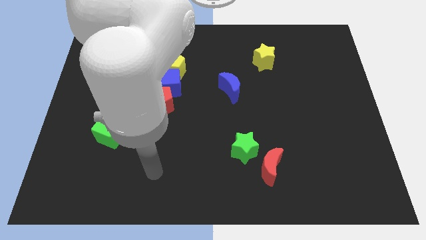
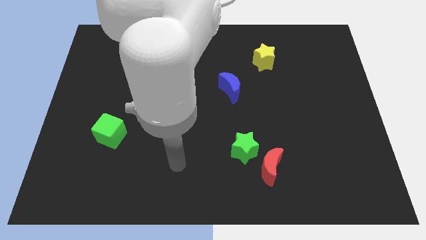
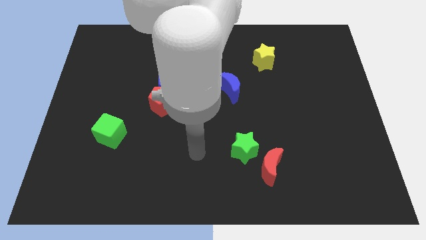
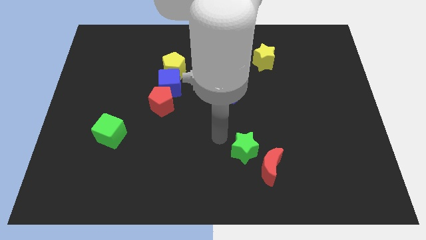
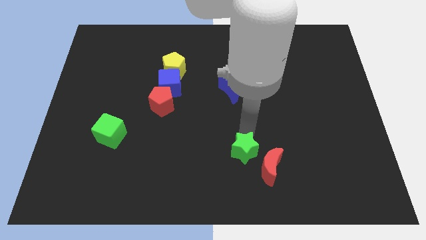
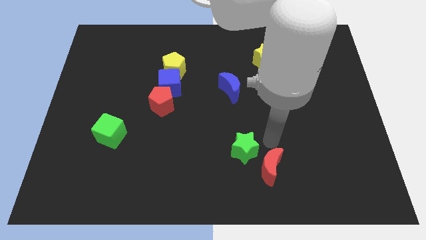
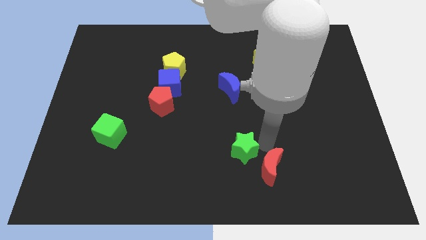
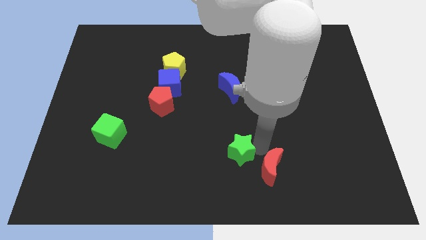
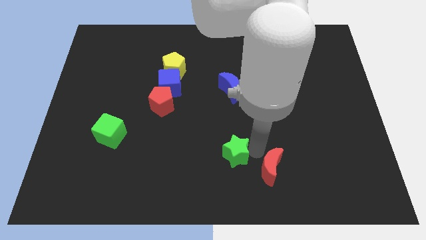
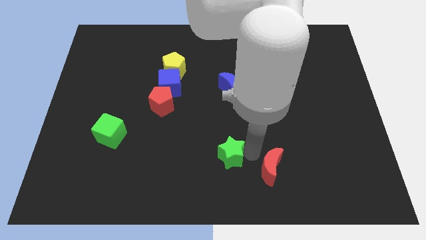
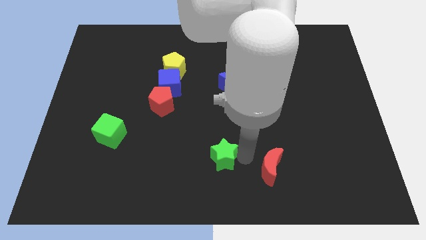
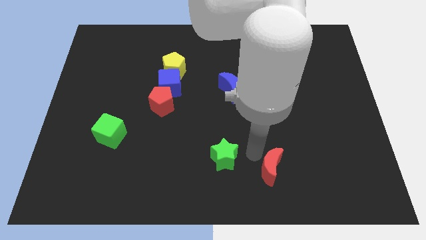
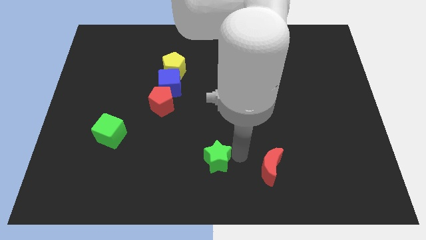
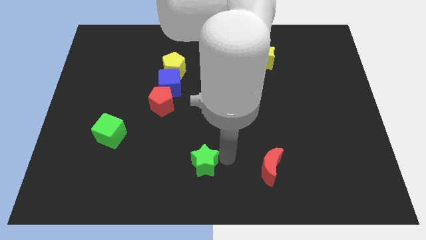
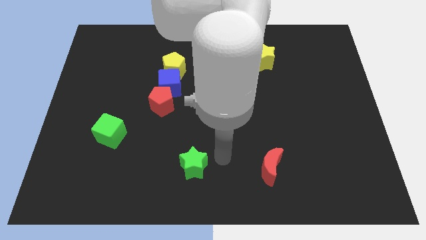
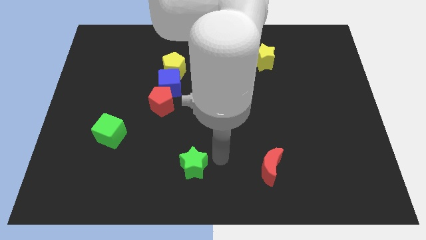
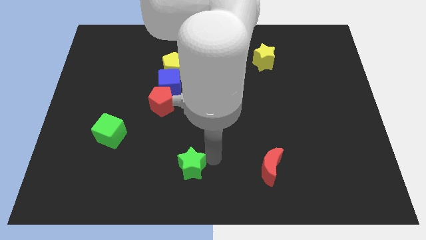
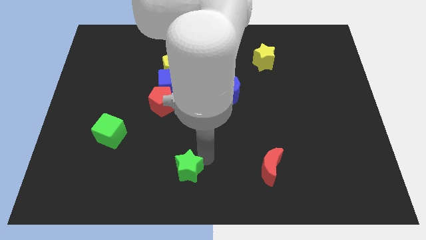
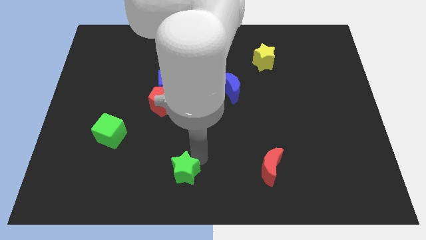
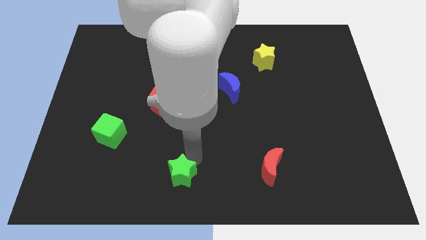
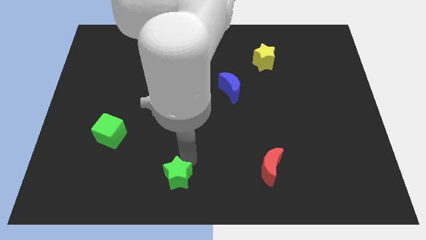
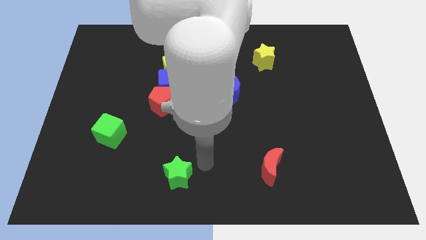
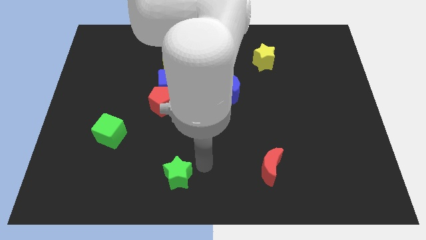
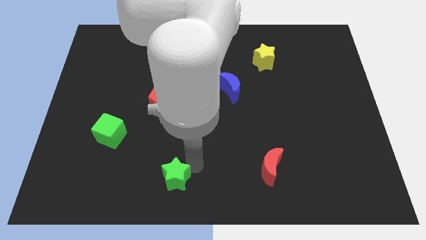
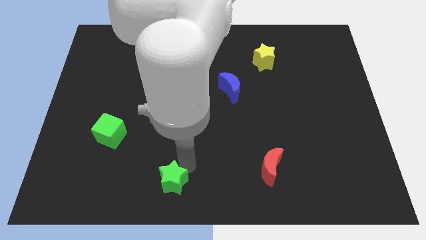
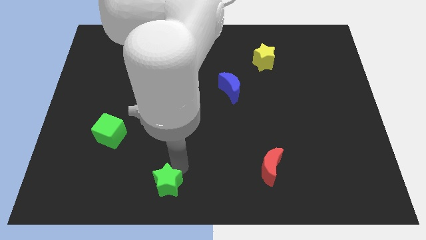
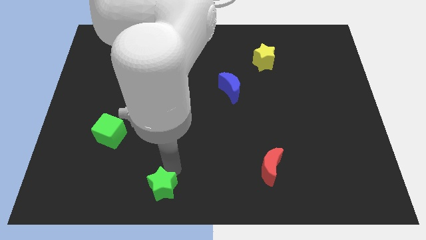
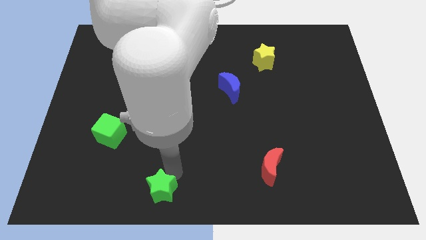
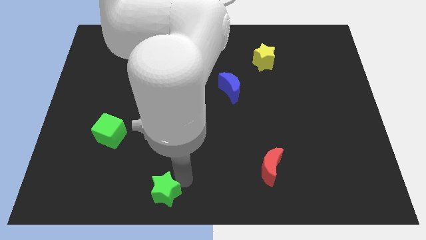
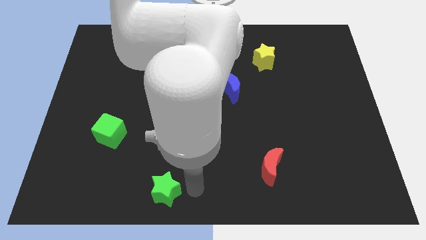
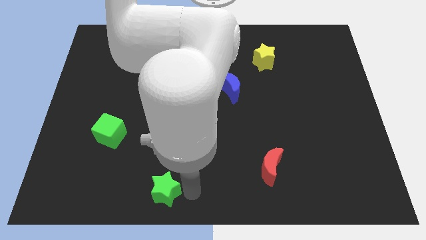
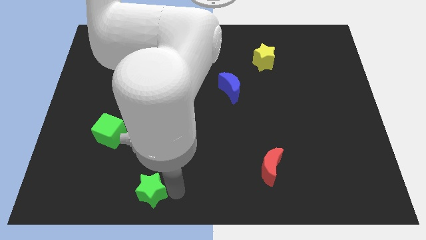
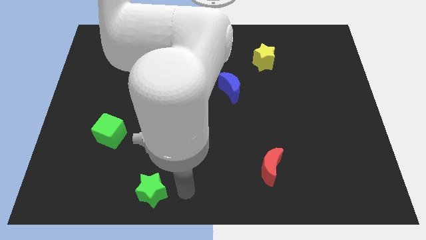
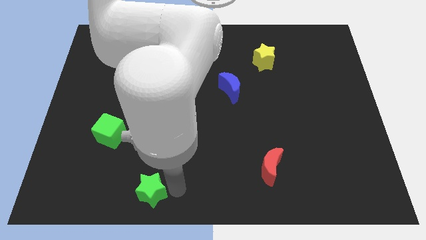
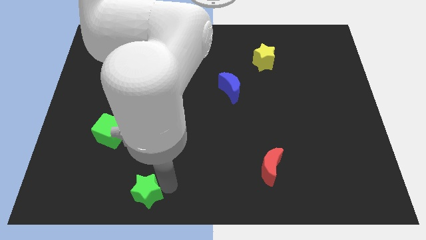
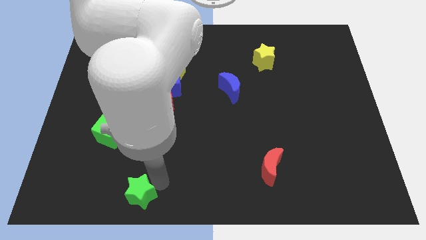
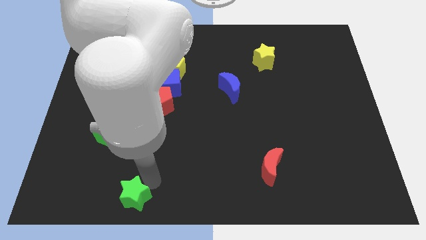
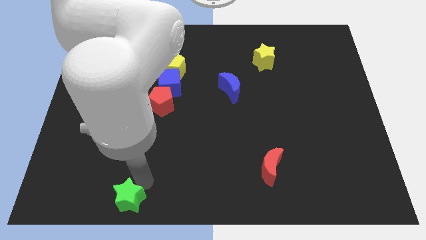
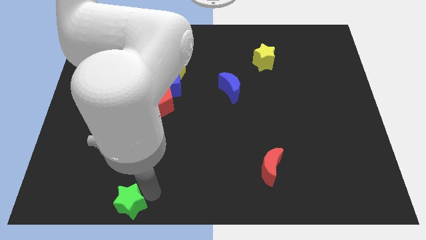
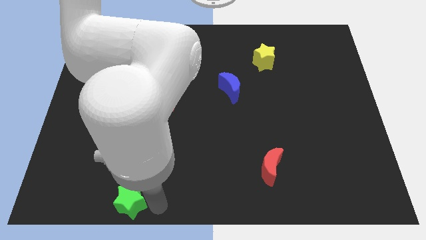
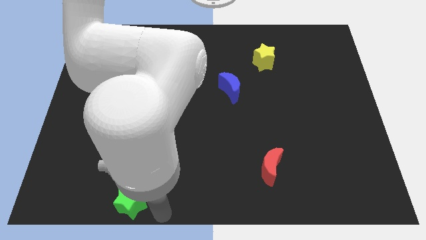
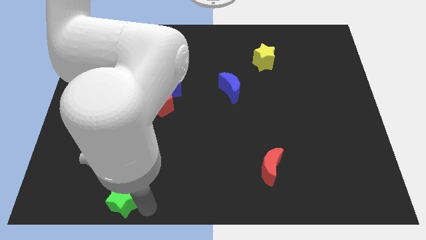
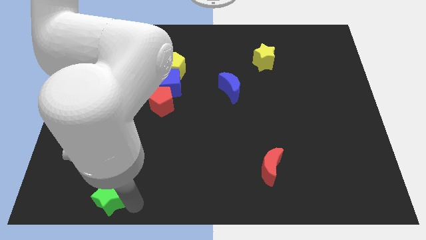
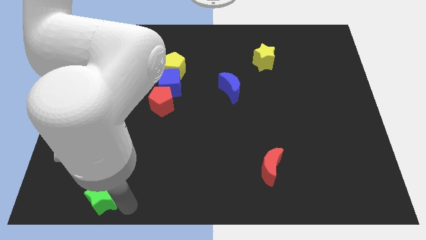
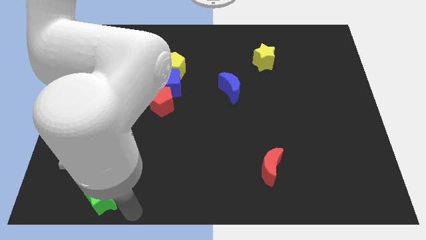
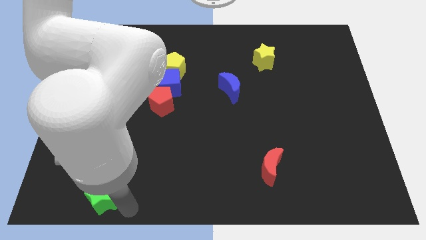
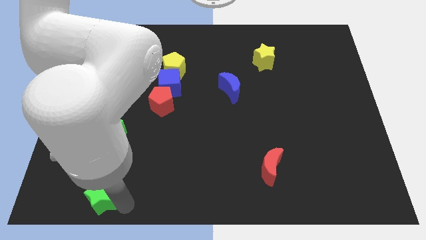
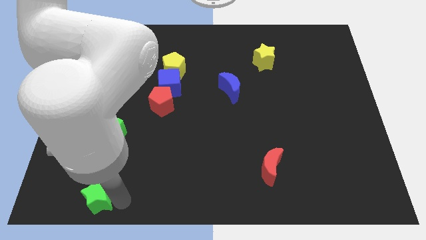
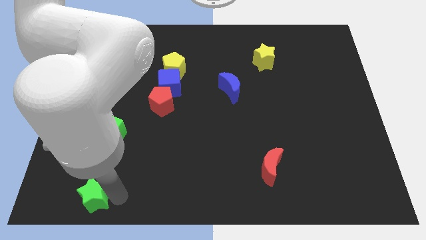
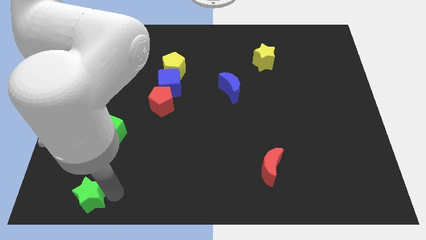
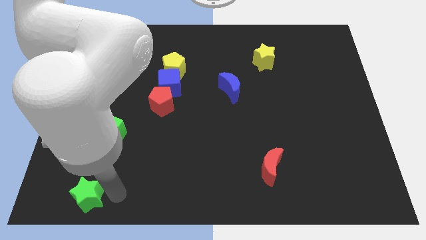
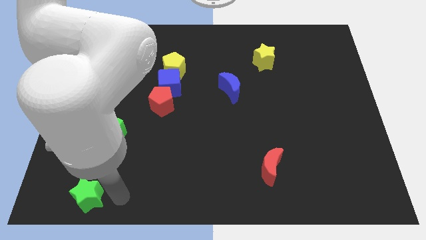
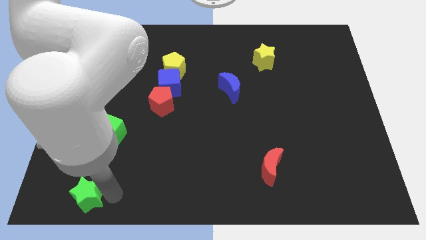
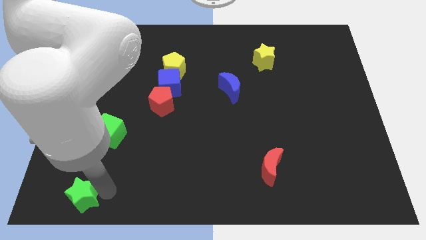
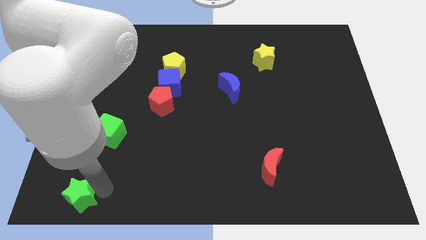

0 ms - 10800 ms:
put the green star to the lower left corner

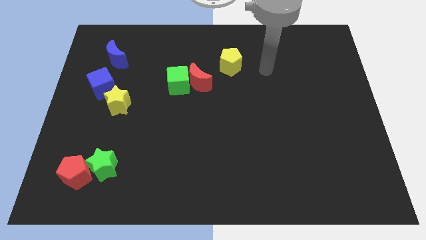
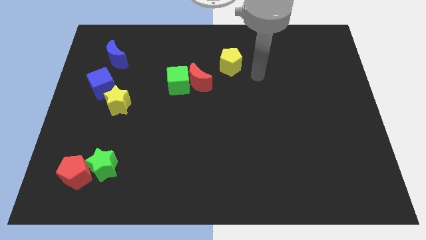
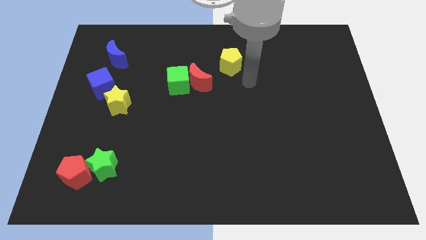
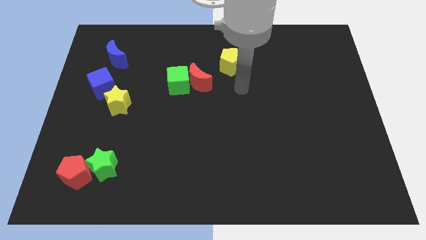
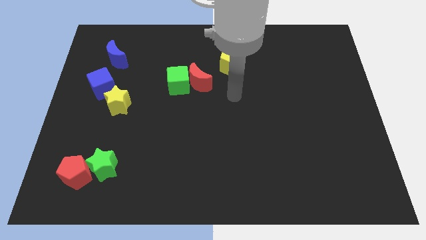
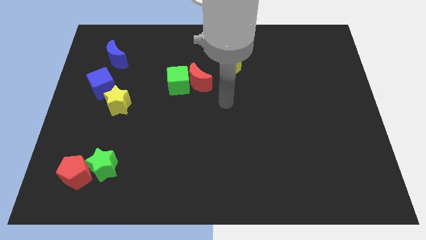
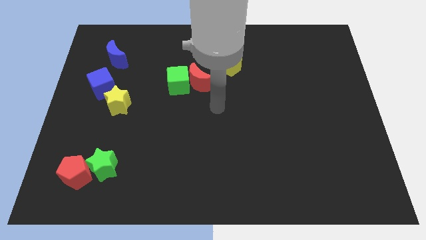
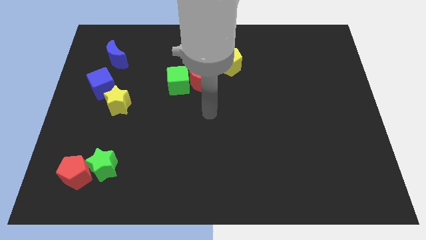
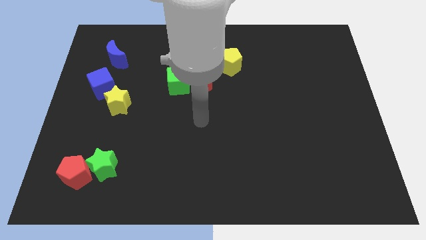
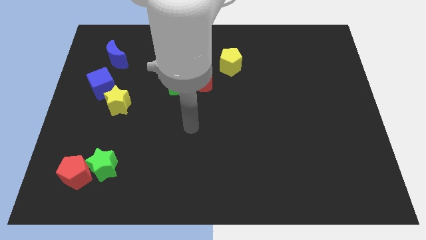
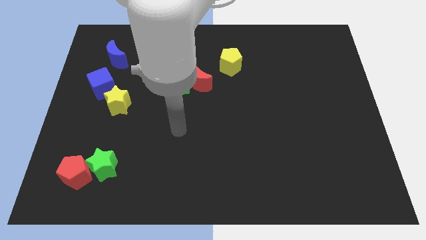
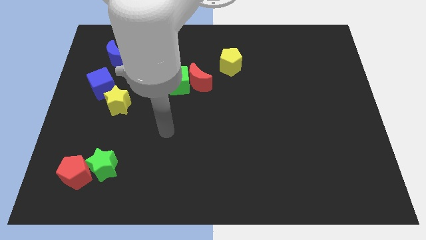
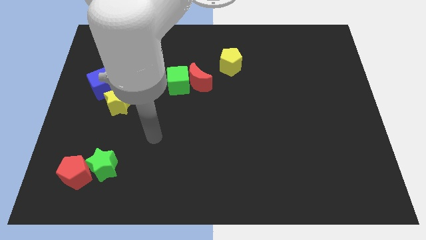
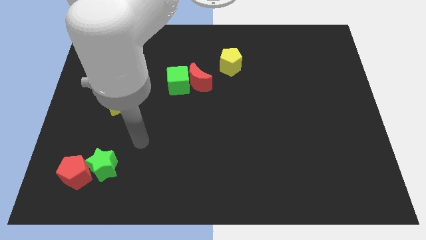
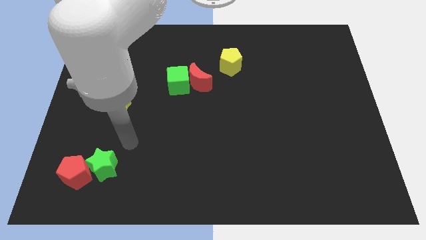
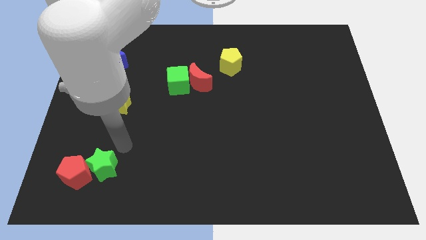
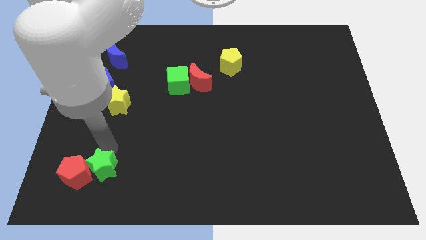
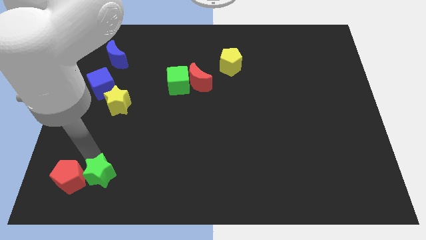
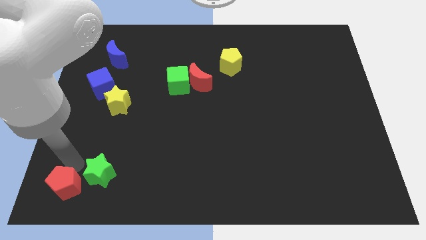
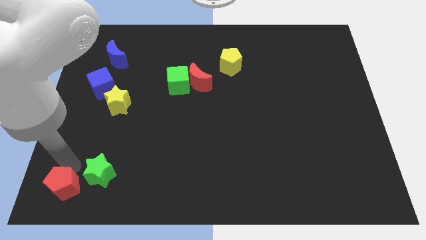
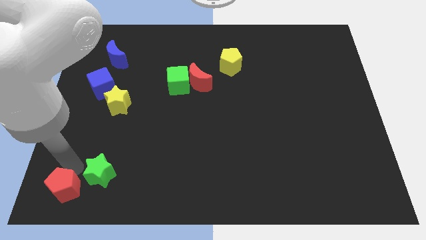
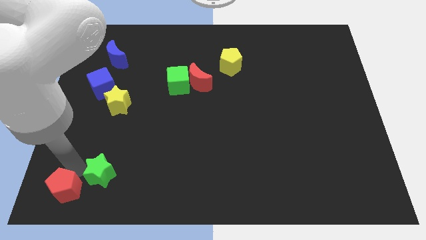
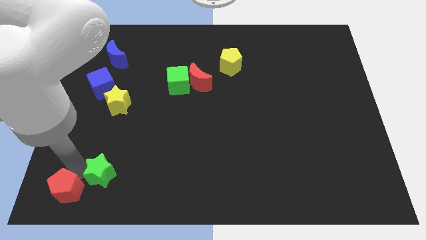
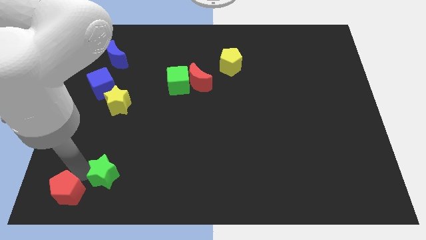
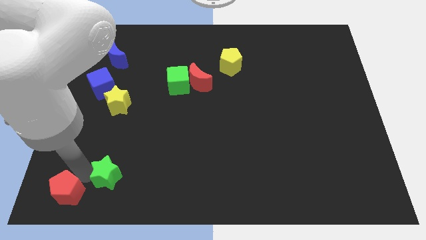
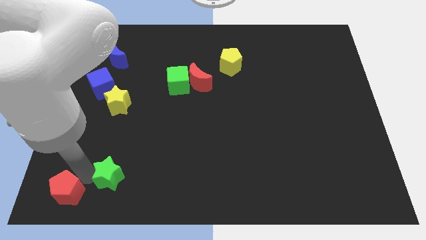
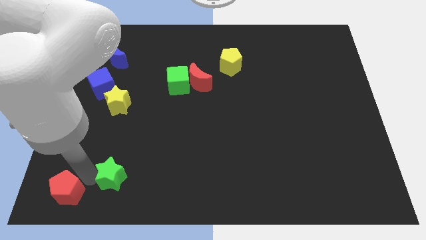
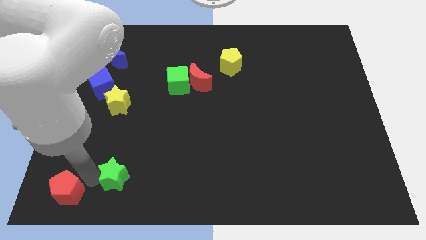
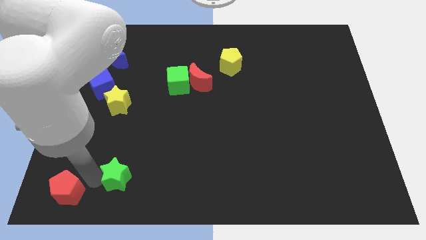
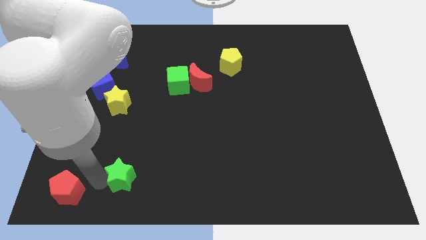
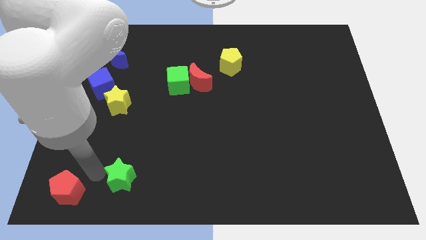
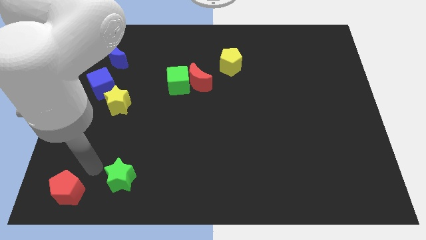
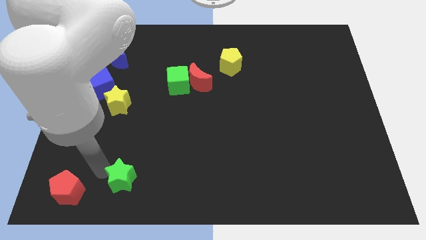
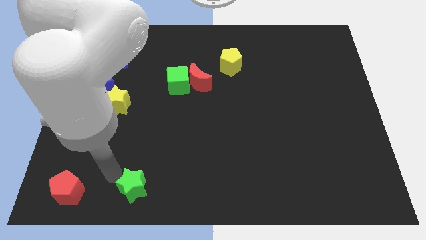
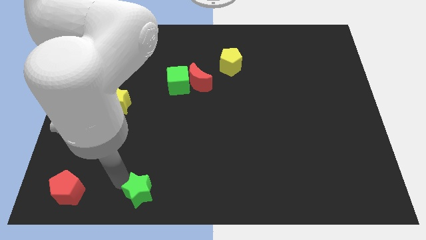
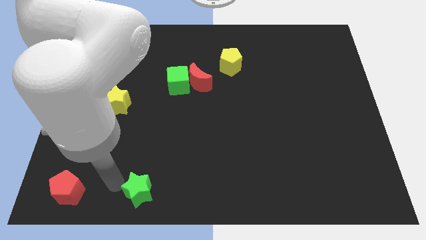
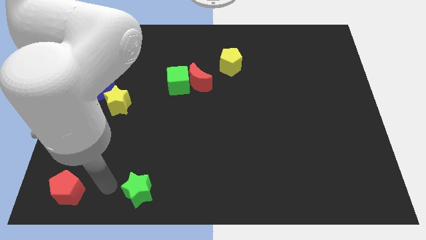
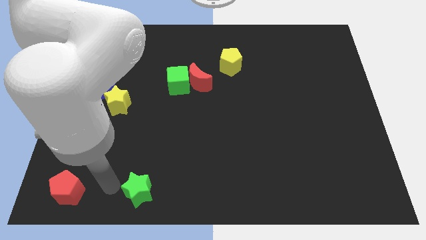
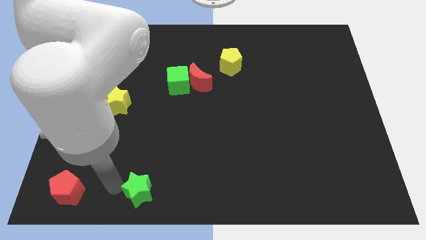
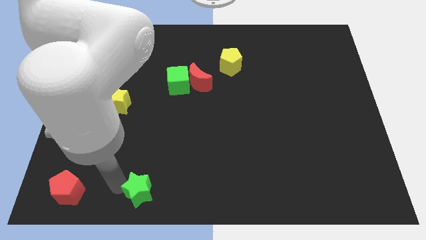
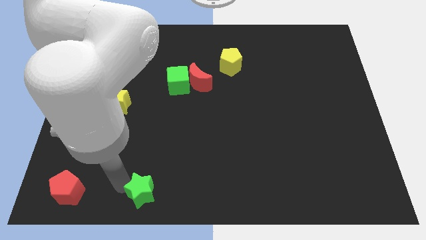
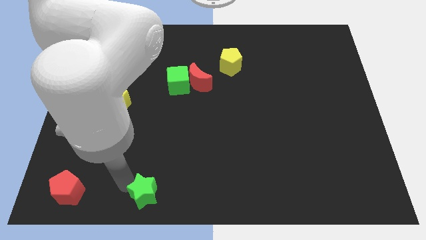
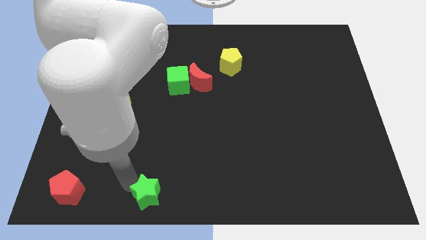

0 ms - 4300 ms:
move the green star to the bottom side
